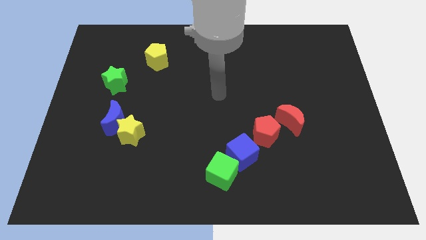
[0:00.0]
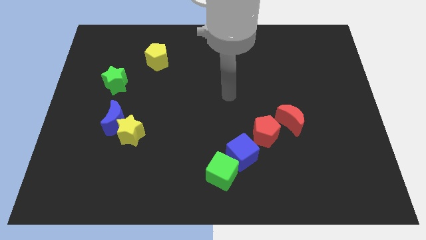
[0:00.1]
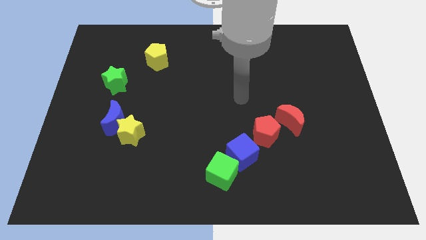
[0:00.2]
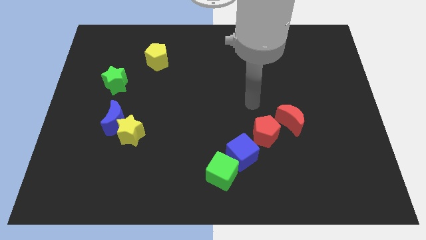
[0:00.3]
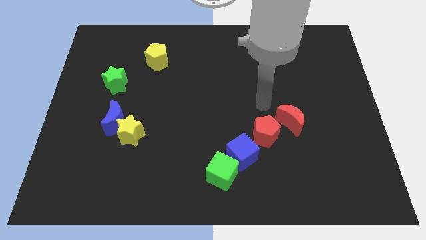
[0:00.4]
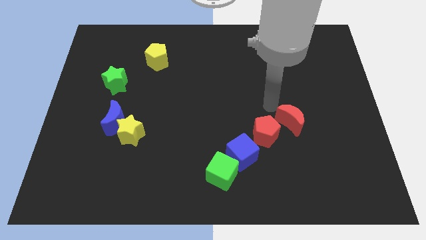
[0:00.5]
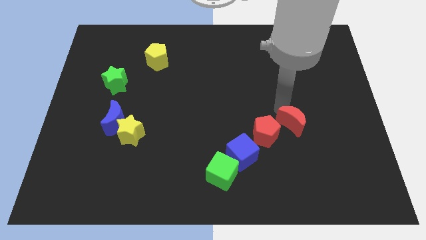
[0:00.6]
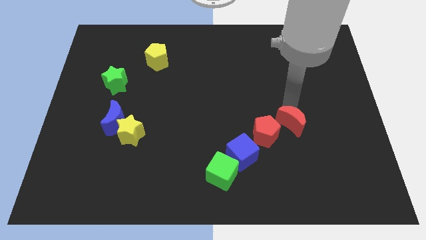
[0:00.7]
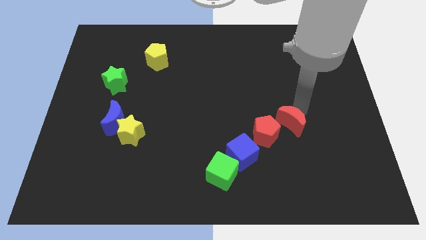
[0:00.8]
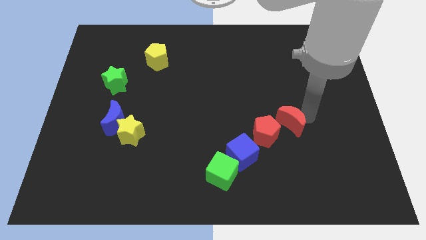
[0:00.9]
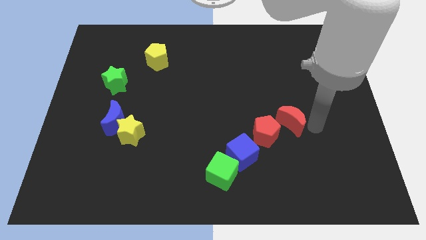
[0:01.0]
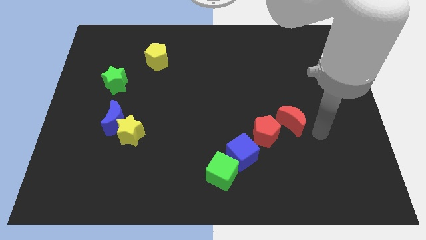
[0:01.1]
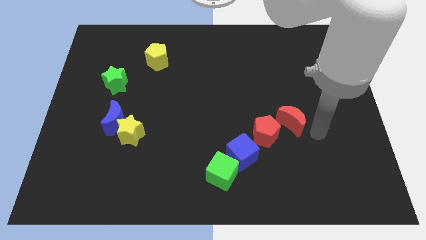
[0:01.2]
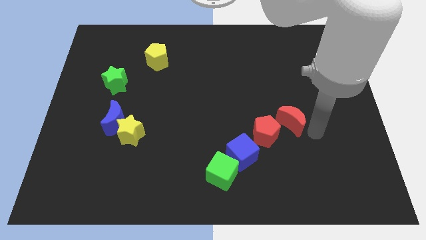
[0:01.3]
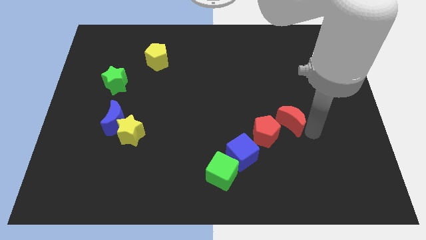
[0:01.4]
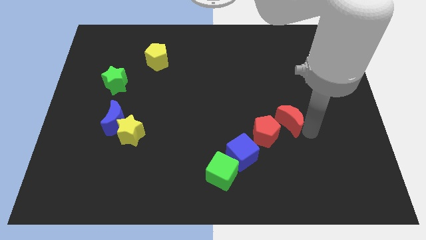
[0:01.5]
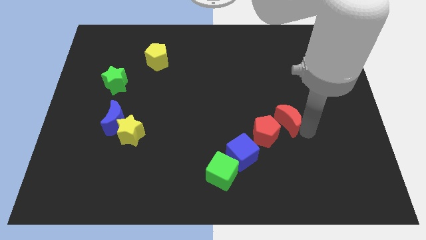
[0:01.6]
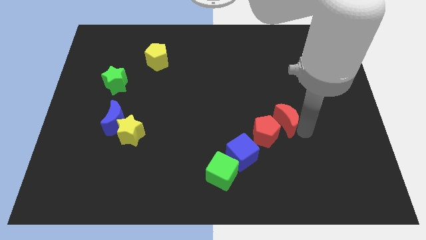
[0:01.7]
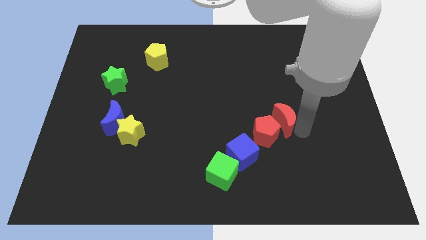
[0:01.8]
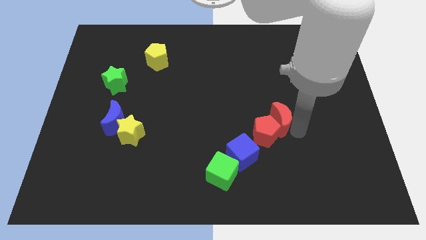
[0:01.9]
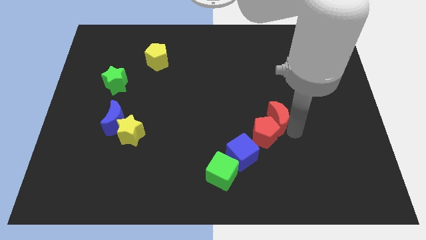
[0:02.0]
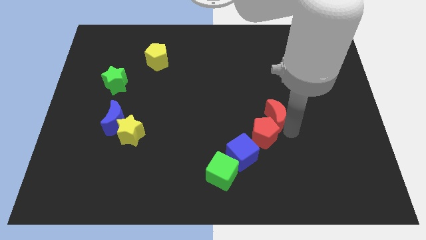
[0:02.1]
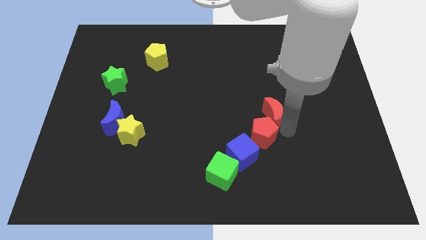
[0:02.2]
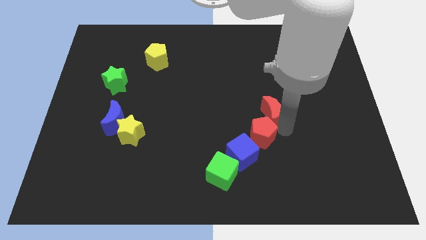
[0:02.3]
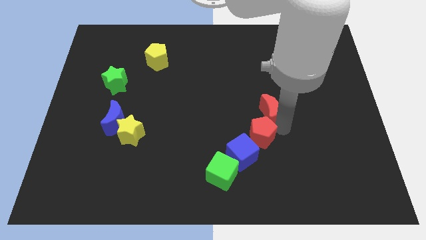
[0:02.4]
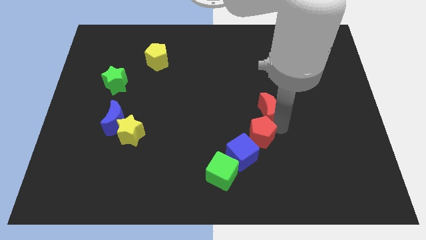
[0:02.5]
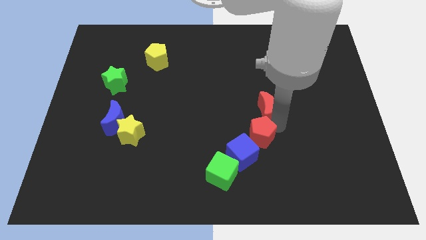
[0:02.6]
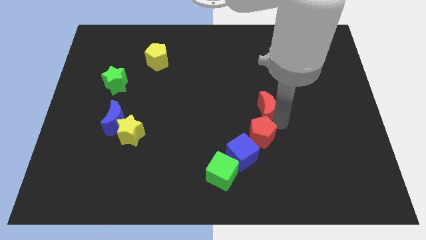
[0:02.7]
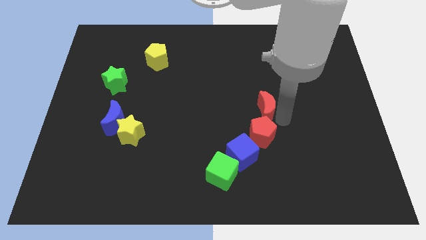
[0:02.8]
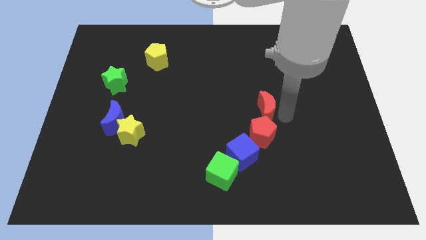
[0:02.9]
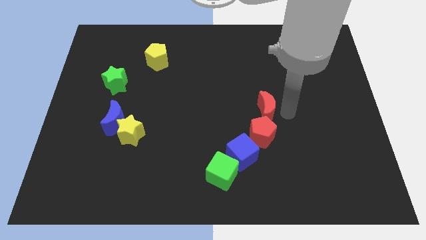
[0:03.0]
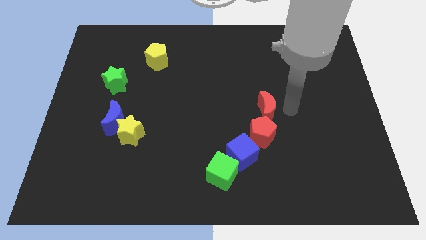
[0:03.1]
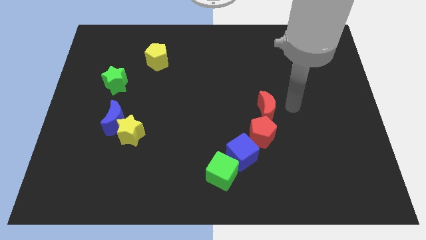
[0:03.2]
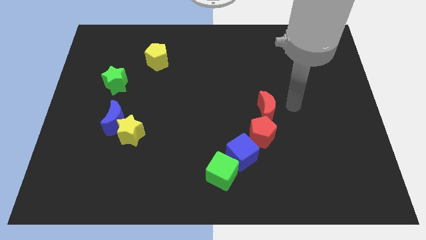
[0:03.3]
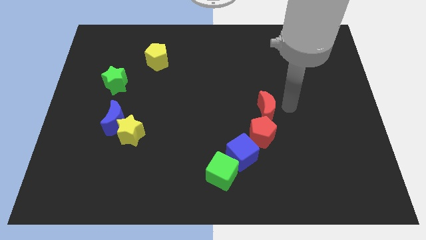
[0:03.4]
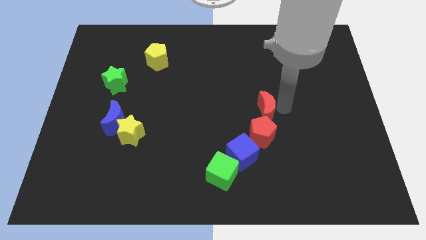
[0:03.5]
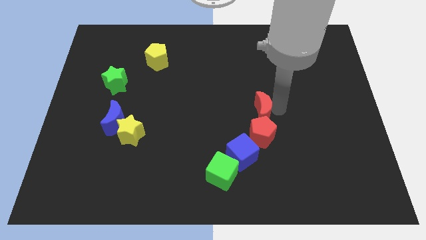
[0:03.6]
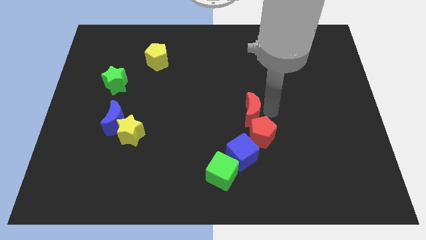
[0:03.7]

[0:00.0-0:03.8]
slide the red moon left somewhat

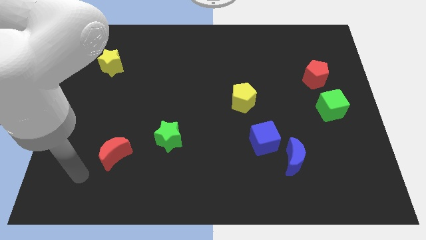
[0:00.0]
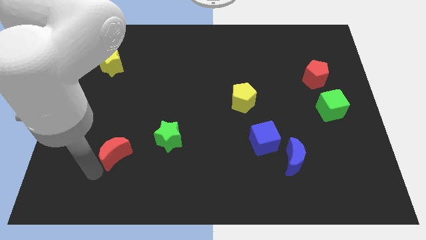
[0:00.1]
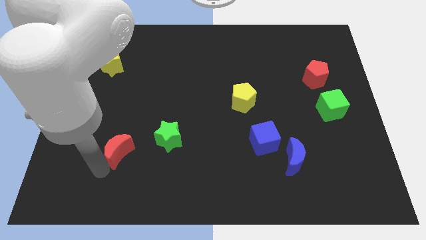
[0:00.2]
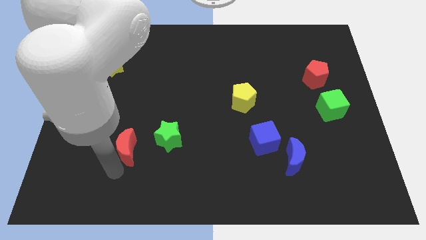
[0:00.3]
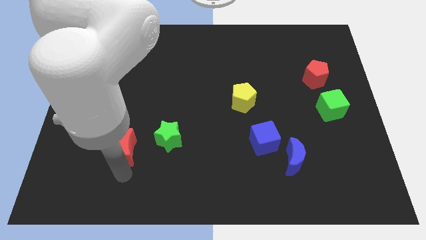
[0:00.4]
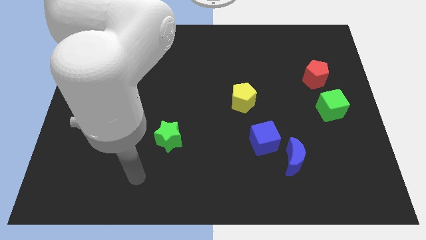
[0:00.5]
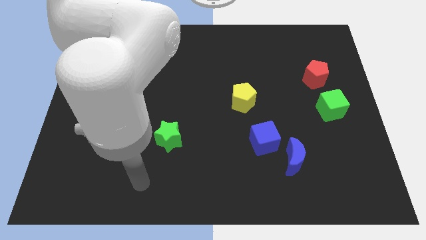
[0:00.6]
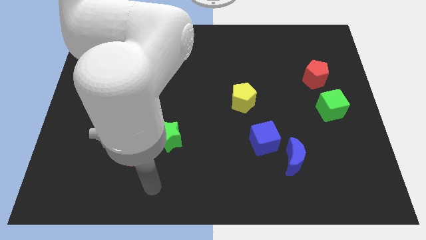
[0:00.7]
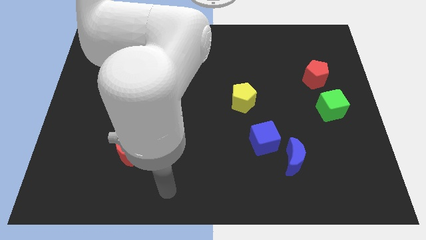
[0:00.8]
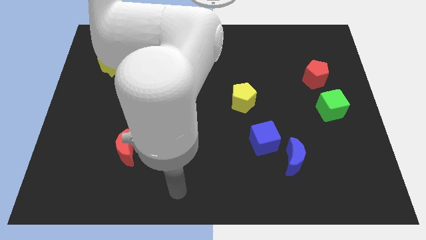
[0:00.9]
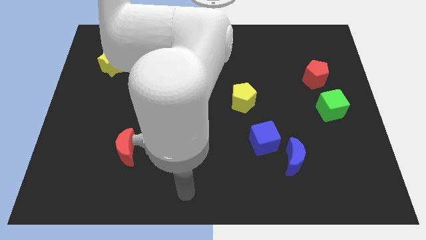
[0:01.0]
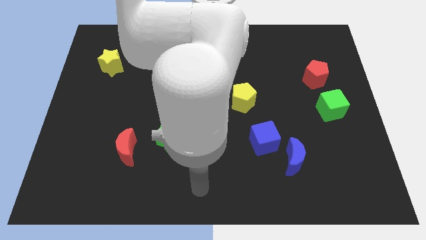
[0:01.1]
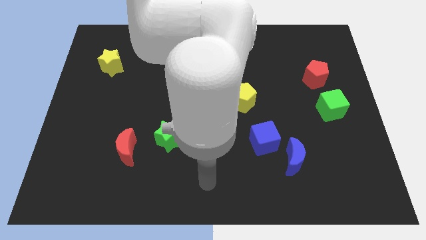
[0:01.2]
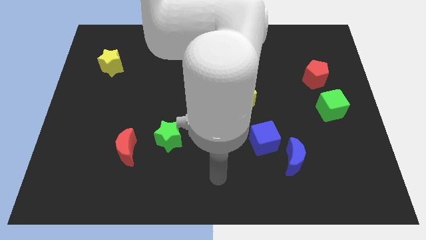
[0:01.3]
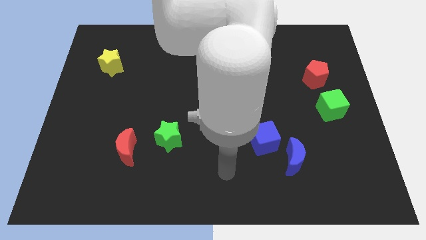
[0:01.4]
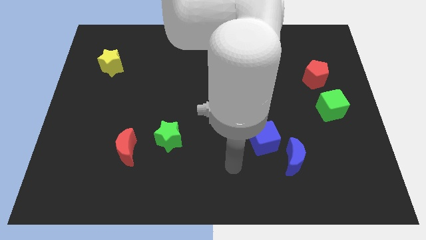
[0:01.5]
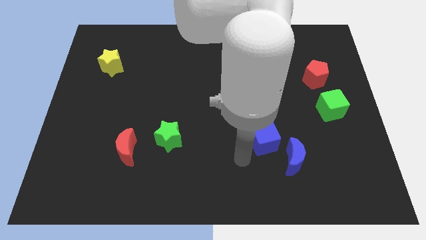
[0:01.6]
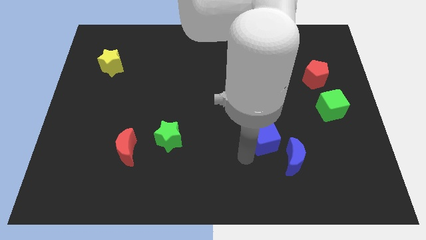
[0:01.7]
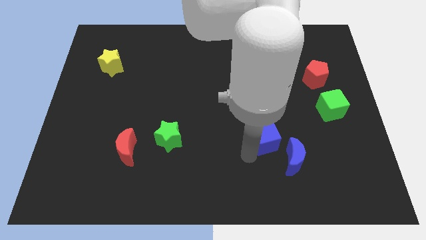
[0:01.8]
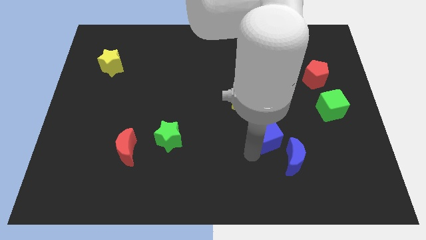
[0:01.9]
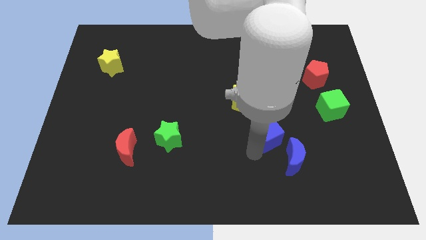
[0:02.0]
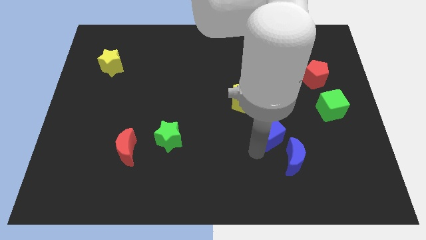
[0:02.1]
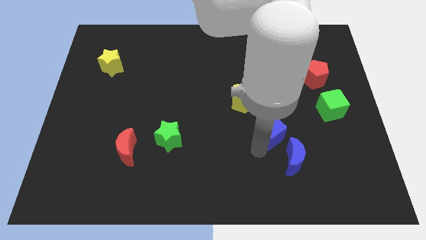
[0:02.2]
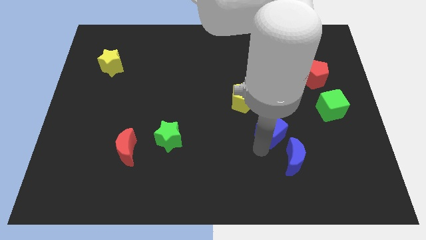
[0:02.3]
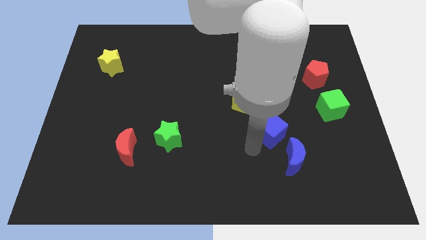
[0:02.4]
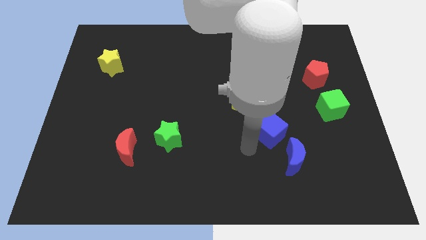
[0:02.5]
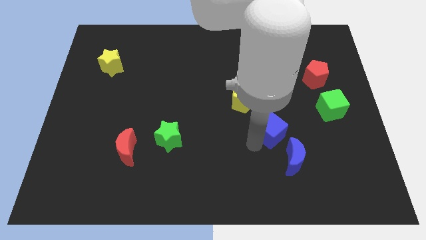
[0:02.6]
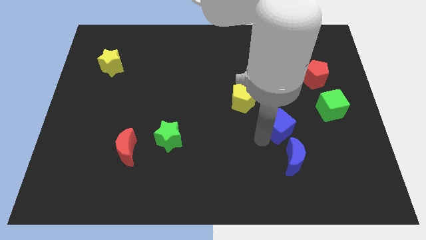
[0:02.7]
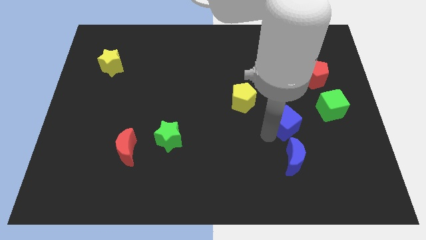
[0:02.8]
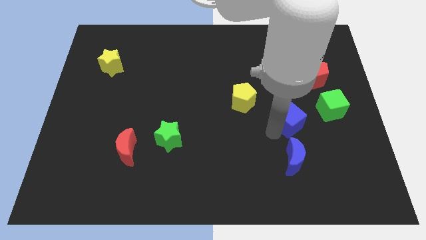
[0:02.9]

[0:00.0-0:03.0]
push the blue cube somewhat upwards and right diagonally

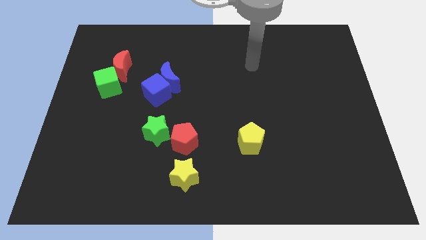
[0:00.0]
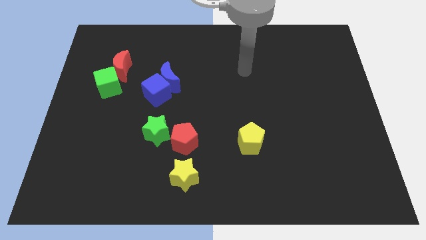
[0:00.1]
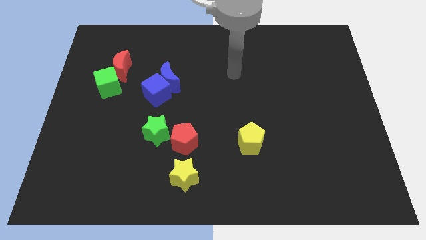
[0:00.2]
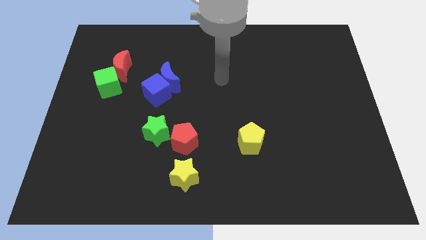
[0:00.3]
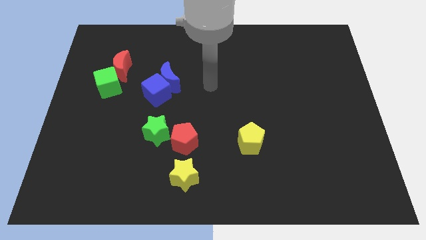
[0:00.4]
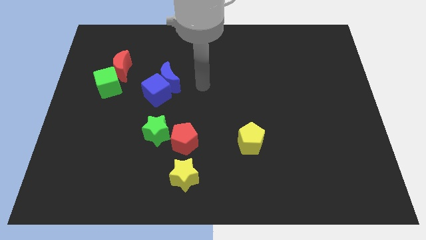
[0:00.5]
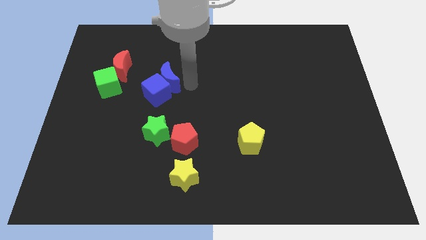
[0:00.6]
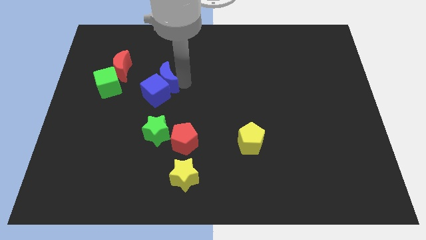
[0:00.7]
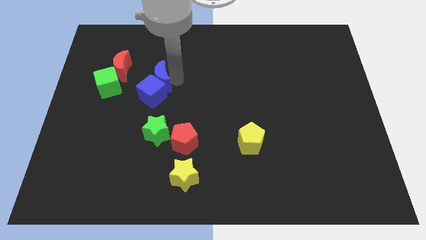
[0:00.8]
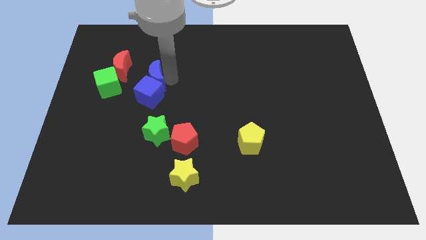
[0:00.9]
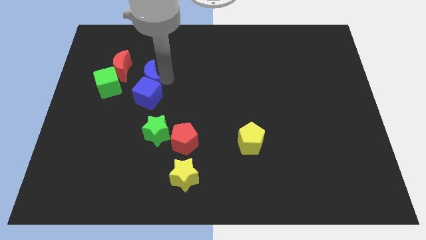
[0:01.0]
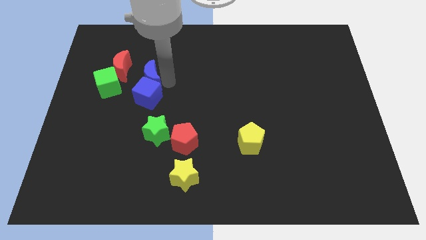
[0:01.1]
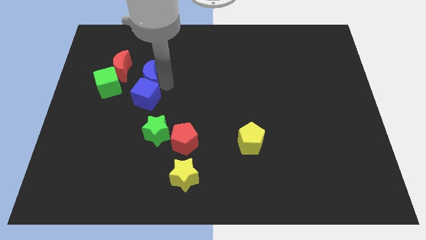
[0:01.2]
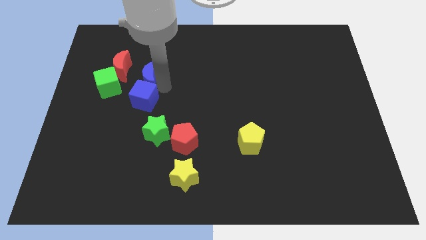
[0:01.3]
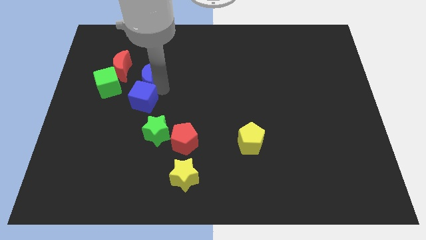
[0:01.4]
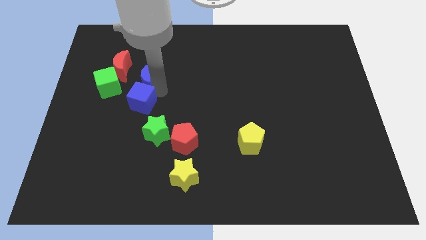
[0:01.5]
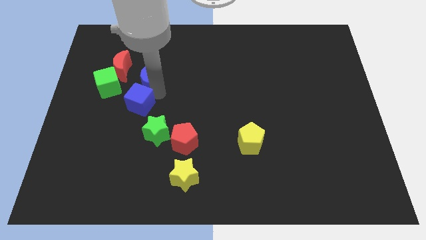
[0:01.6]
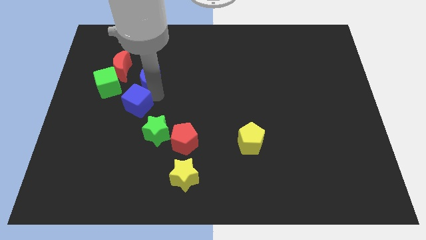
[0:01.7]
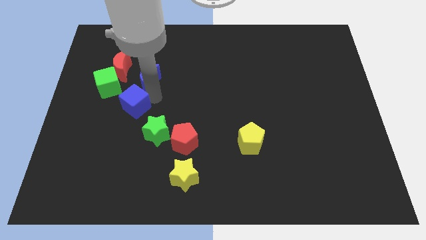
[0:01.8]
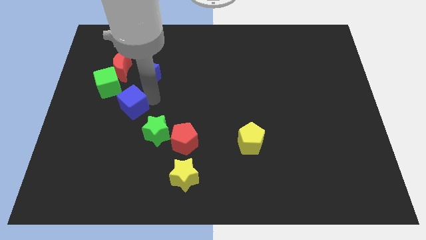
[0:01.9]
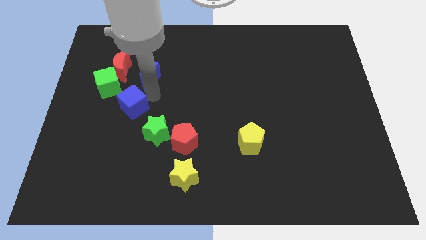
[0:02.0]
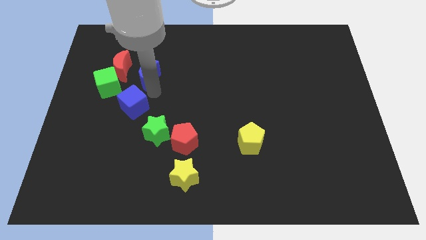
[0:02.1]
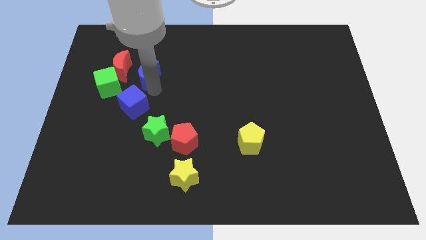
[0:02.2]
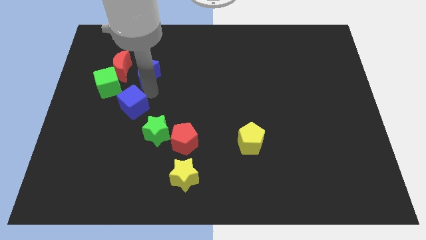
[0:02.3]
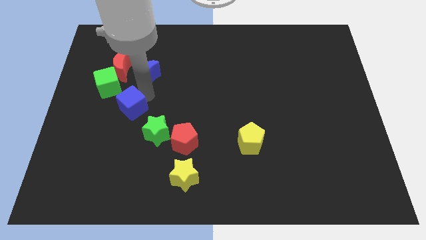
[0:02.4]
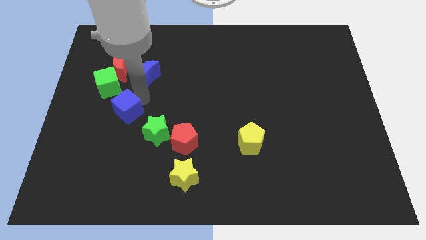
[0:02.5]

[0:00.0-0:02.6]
slide the blue cube slightly diagonally downwards and to the left
